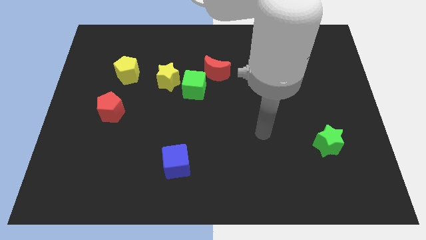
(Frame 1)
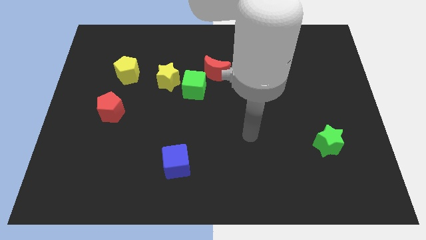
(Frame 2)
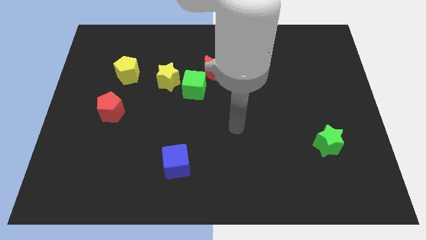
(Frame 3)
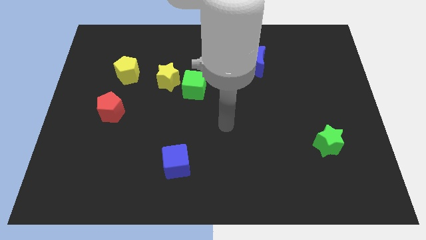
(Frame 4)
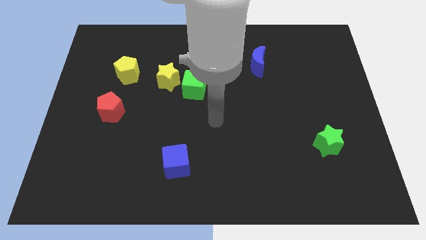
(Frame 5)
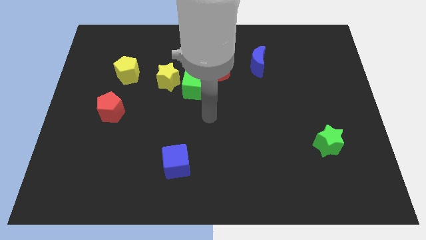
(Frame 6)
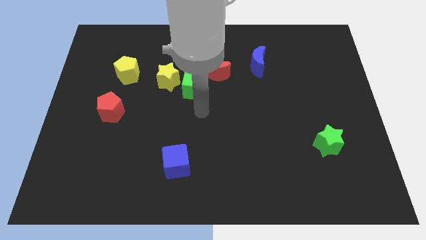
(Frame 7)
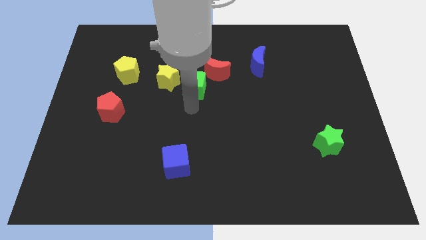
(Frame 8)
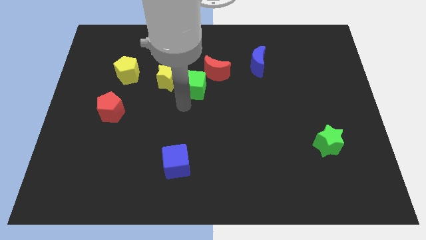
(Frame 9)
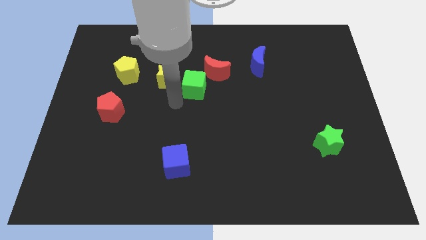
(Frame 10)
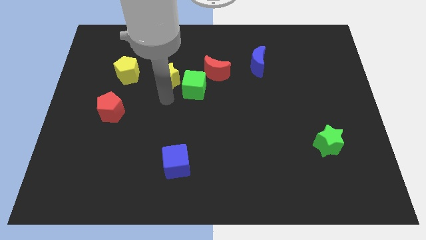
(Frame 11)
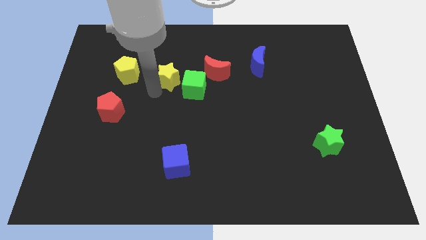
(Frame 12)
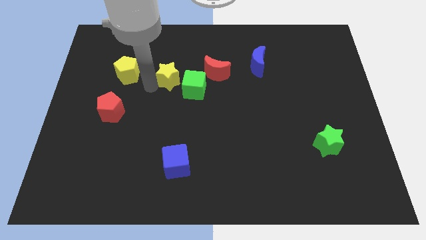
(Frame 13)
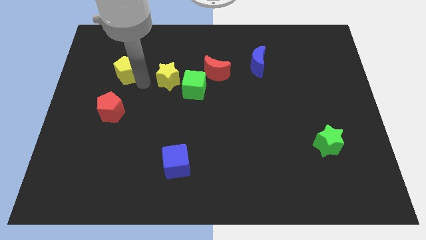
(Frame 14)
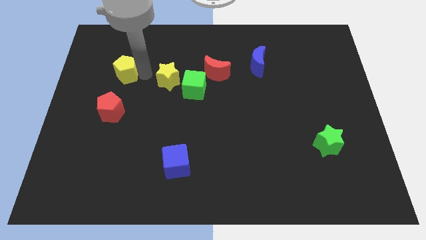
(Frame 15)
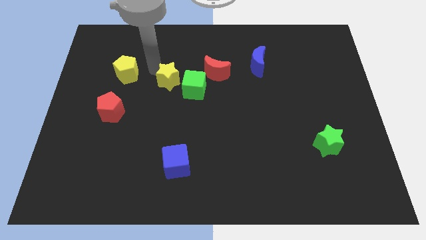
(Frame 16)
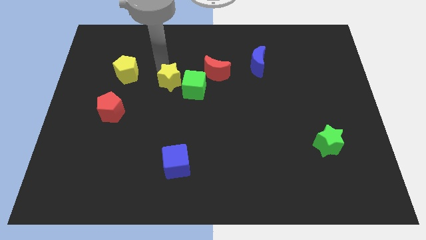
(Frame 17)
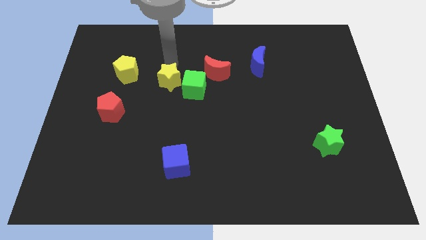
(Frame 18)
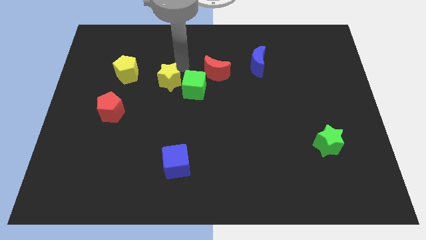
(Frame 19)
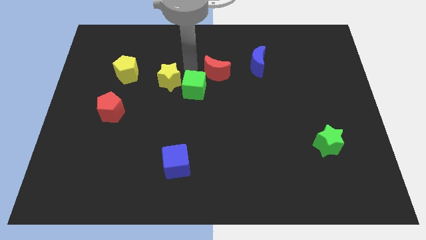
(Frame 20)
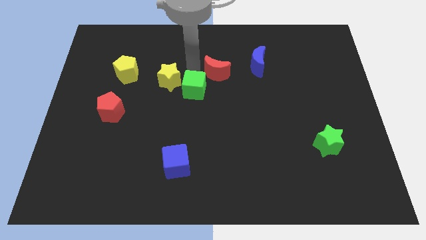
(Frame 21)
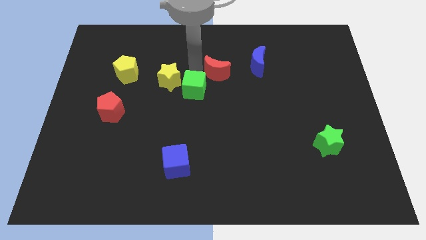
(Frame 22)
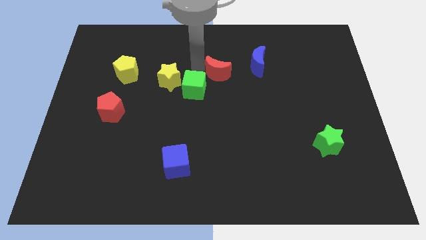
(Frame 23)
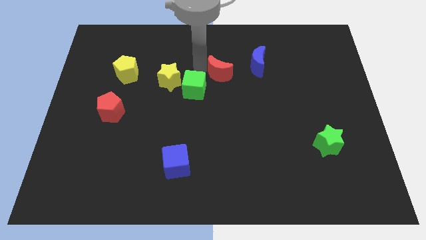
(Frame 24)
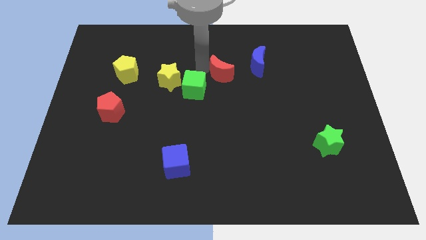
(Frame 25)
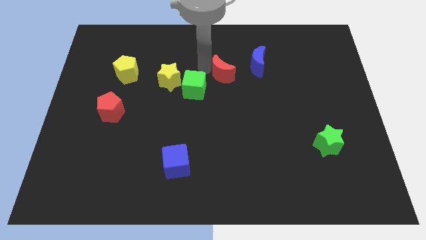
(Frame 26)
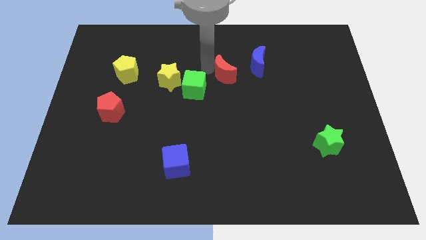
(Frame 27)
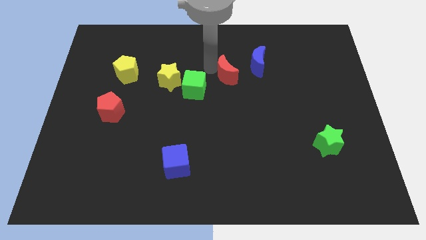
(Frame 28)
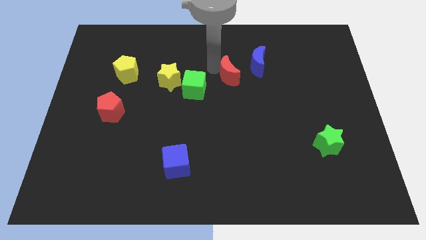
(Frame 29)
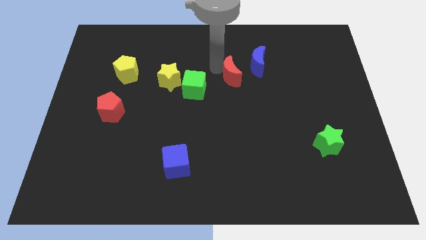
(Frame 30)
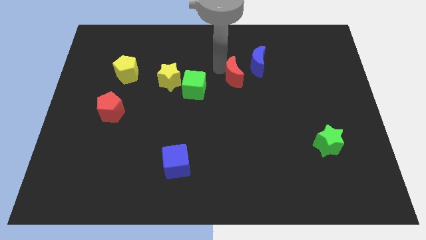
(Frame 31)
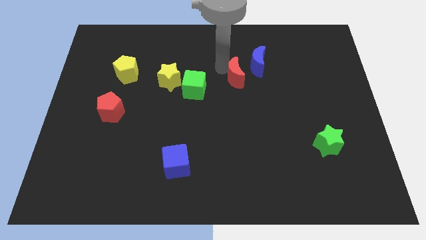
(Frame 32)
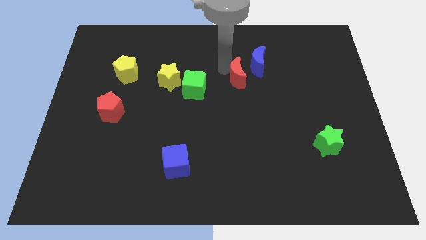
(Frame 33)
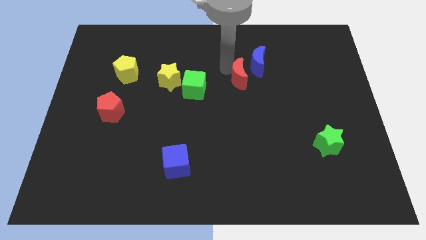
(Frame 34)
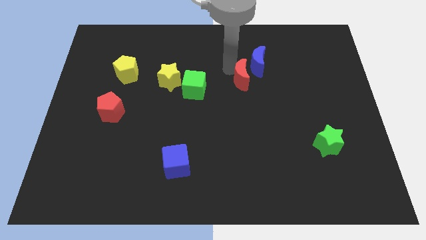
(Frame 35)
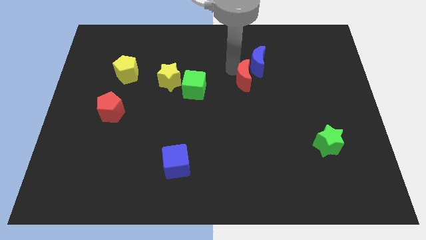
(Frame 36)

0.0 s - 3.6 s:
move the red moon to the right a little bit

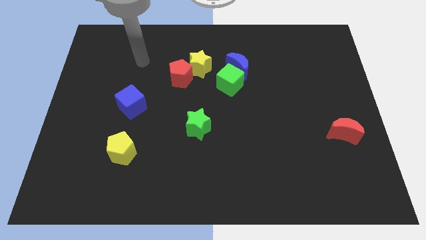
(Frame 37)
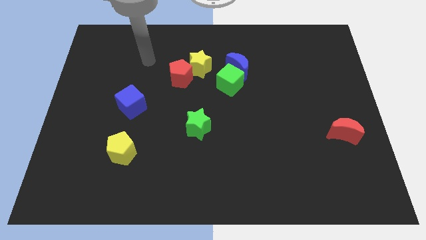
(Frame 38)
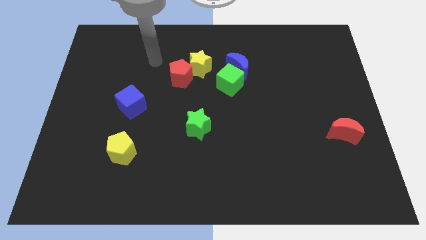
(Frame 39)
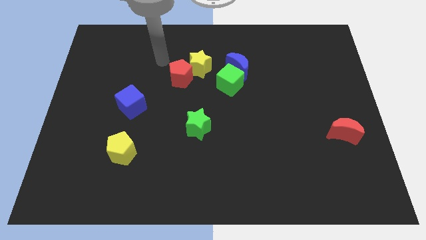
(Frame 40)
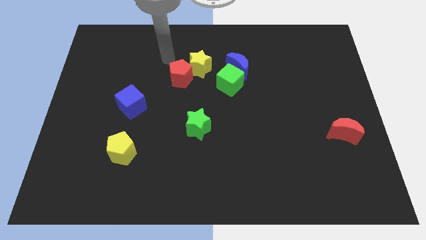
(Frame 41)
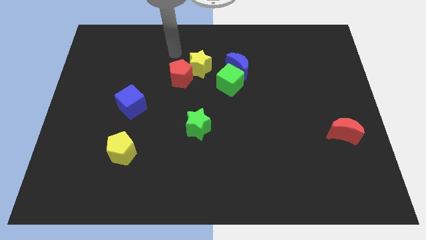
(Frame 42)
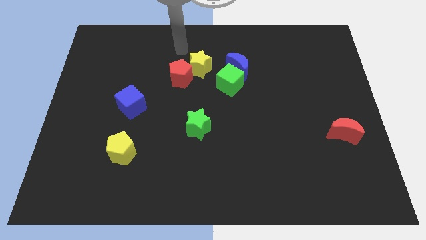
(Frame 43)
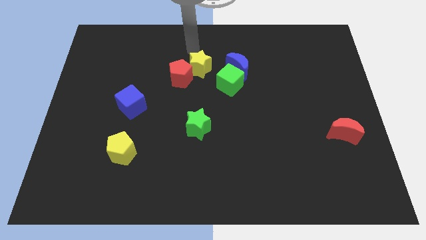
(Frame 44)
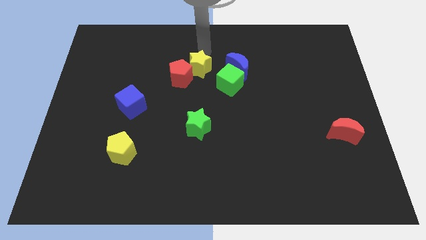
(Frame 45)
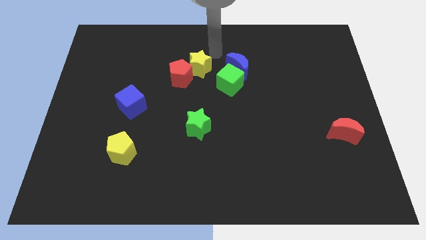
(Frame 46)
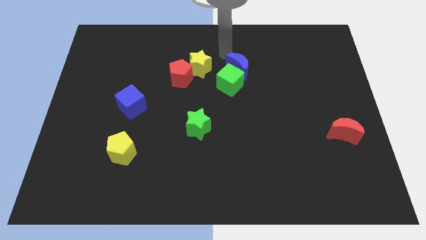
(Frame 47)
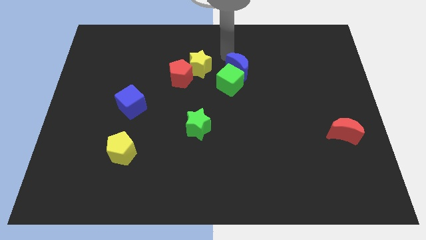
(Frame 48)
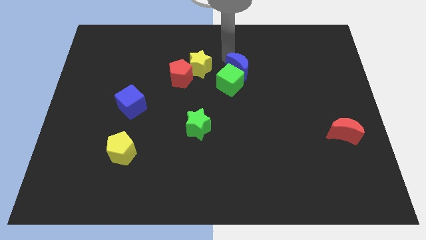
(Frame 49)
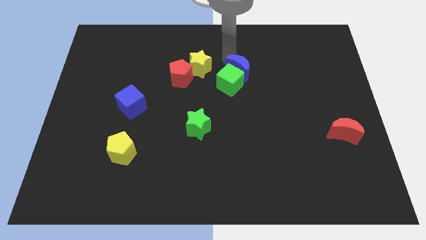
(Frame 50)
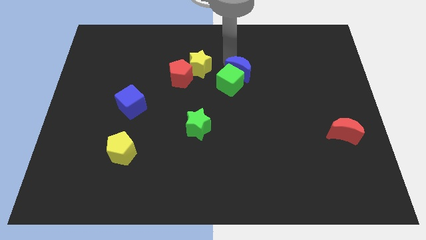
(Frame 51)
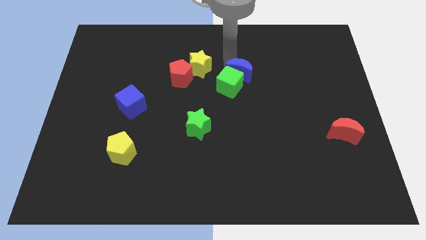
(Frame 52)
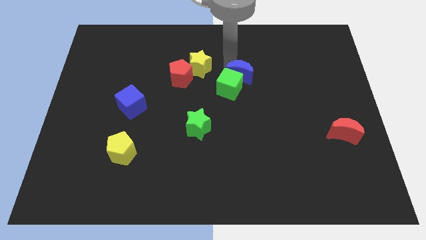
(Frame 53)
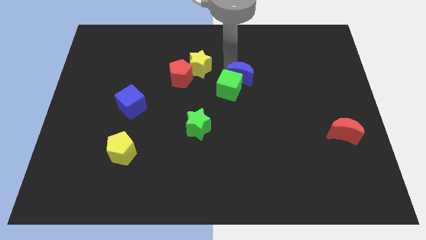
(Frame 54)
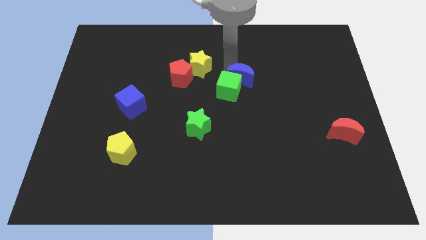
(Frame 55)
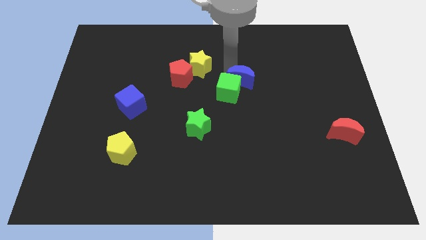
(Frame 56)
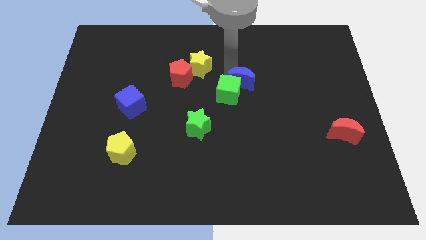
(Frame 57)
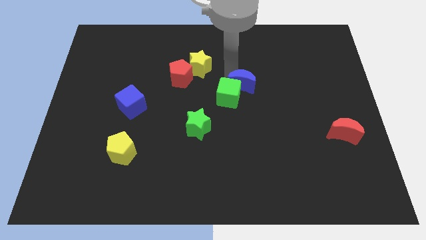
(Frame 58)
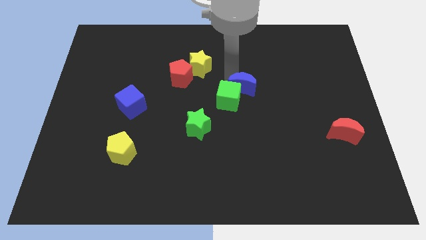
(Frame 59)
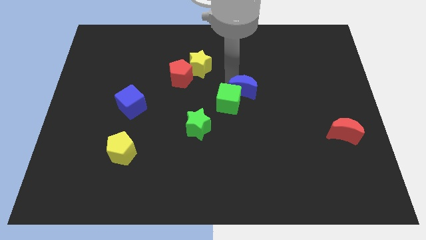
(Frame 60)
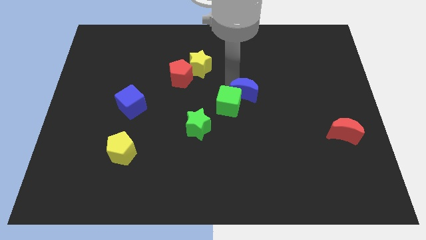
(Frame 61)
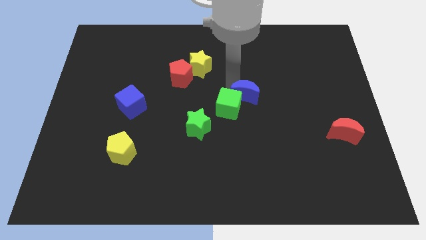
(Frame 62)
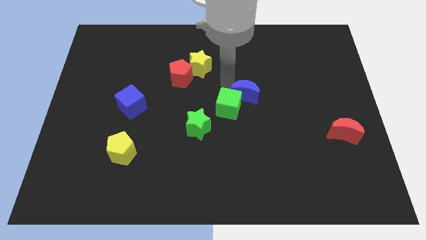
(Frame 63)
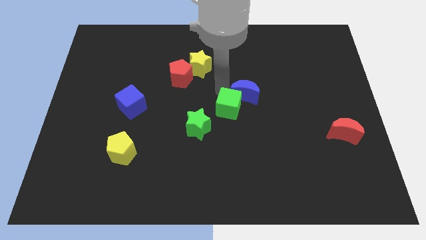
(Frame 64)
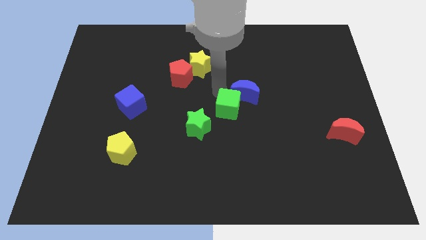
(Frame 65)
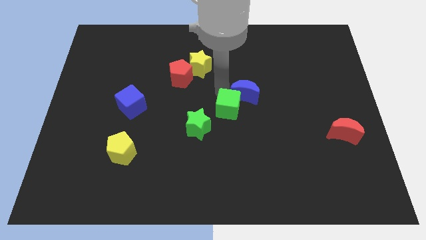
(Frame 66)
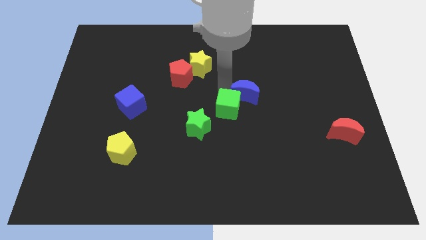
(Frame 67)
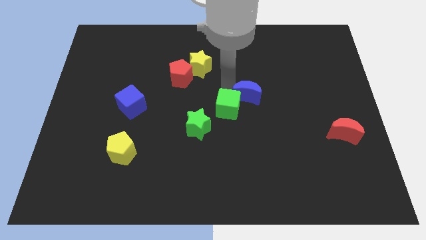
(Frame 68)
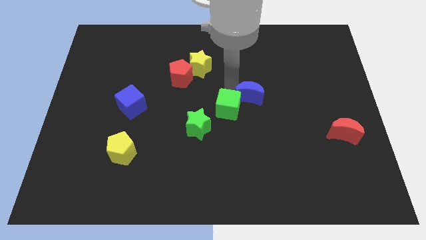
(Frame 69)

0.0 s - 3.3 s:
slightly push the blue moon downwards and right

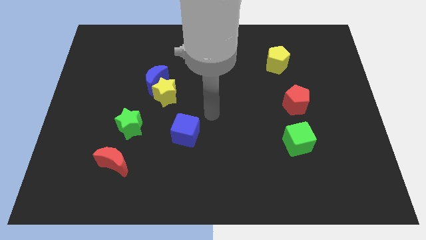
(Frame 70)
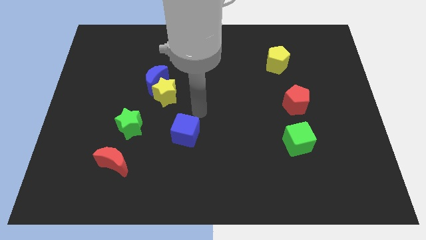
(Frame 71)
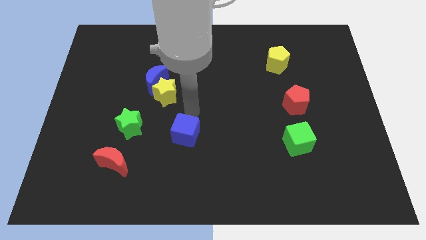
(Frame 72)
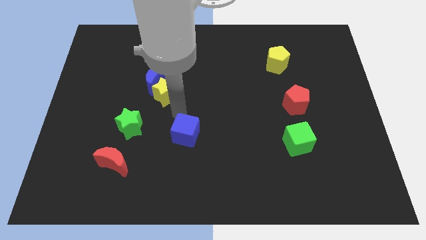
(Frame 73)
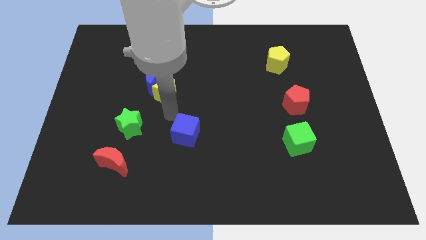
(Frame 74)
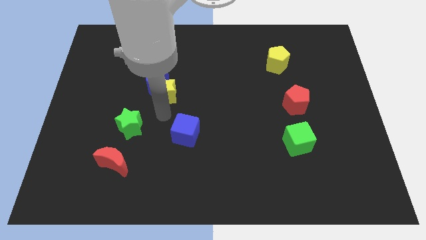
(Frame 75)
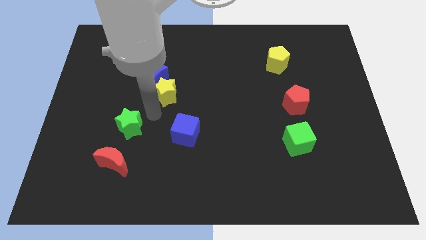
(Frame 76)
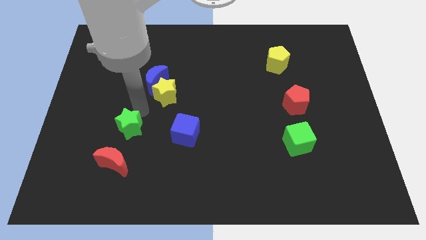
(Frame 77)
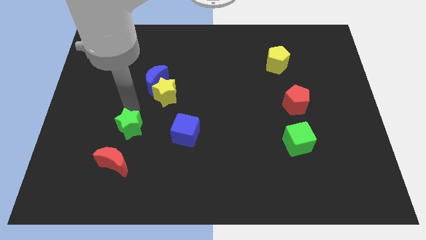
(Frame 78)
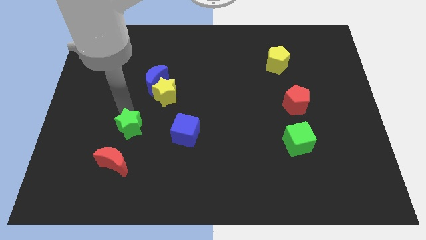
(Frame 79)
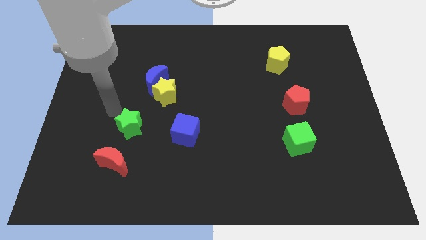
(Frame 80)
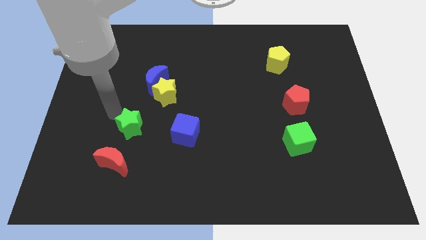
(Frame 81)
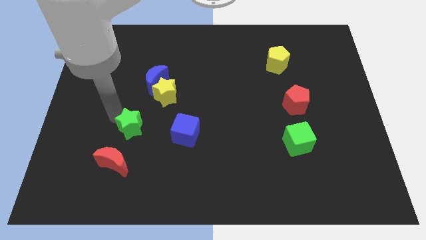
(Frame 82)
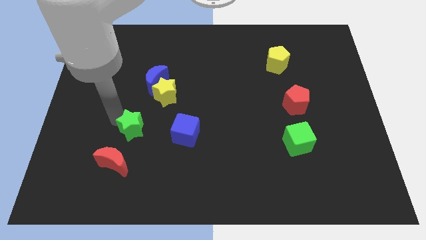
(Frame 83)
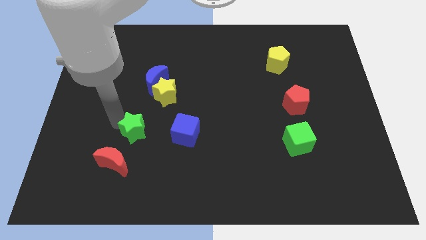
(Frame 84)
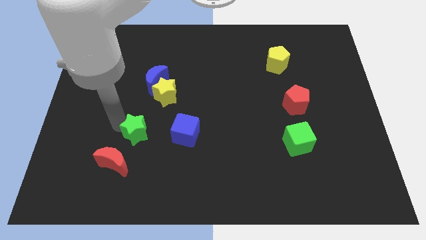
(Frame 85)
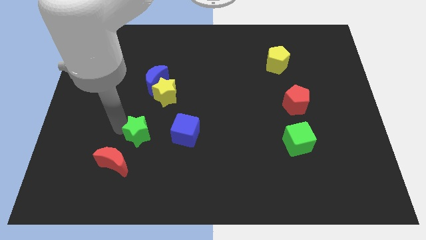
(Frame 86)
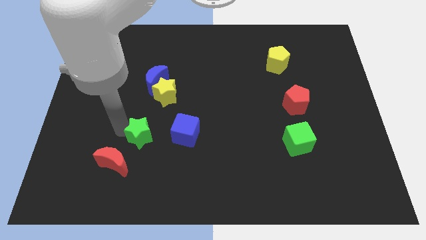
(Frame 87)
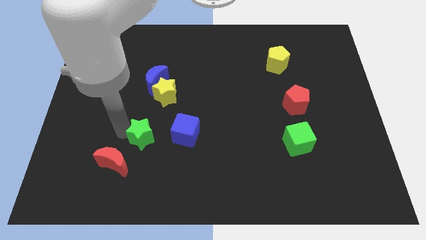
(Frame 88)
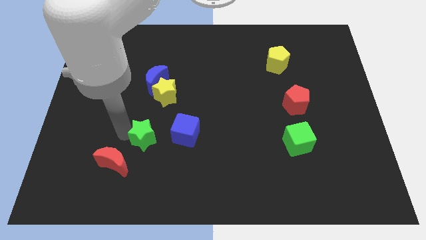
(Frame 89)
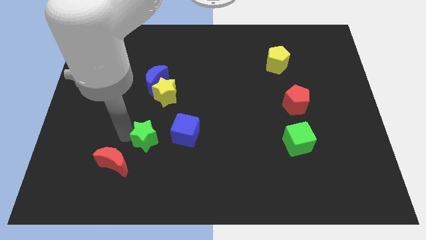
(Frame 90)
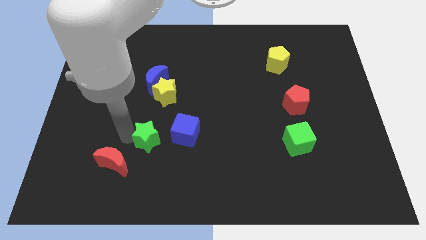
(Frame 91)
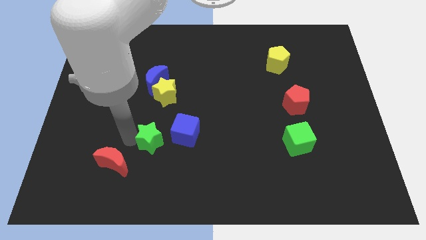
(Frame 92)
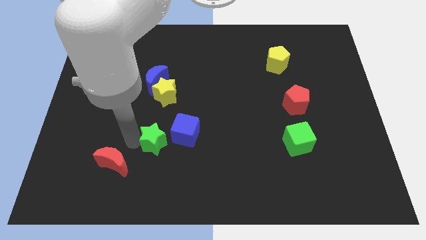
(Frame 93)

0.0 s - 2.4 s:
move the green star a little downwards and then to the right
